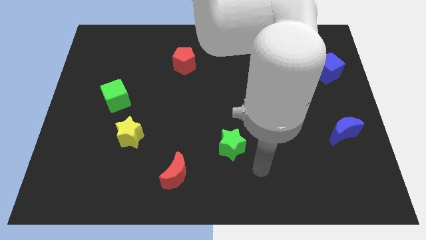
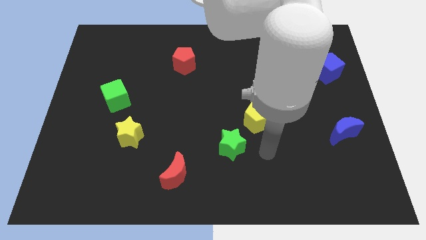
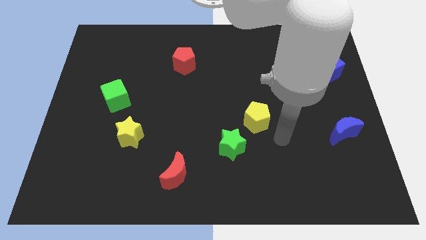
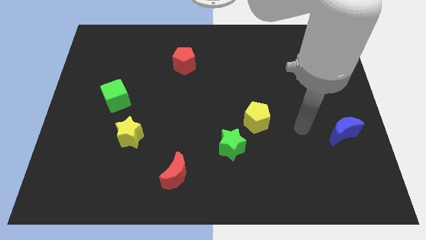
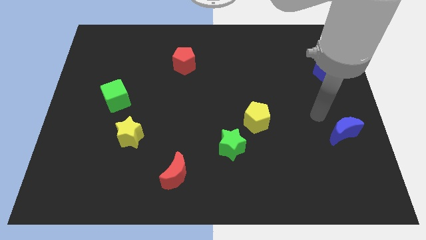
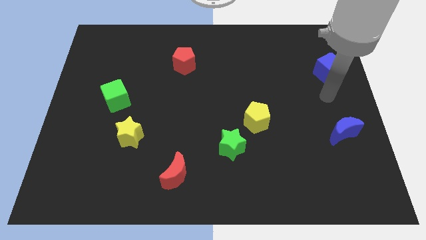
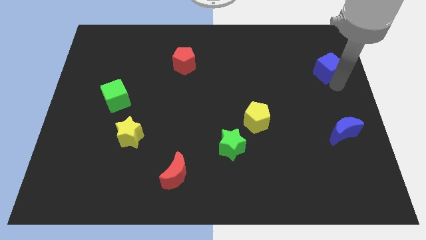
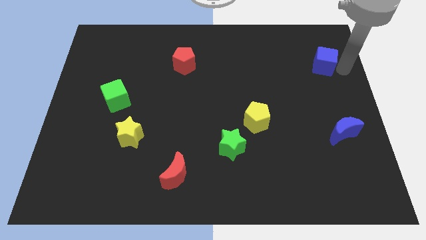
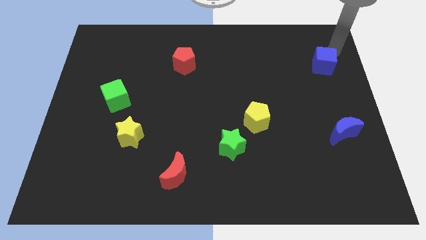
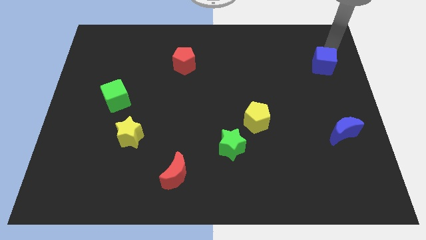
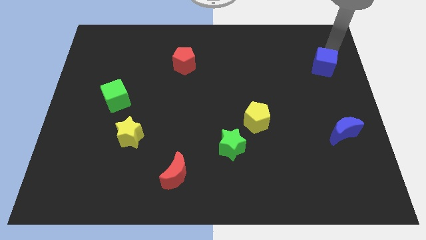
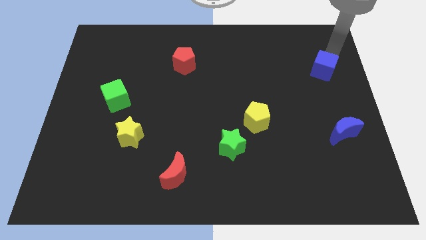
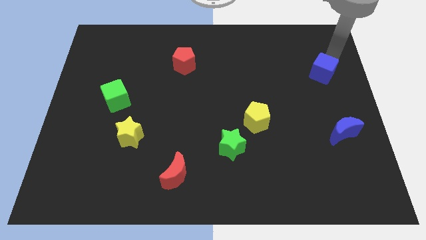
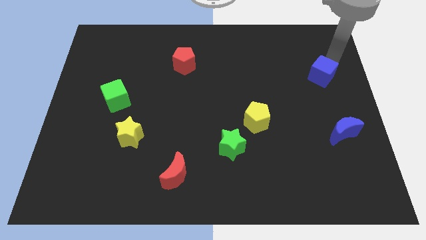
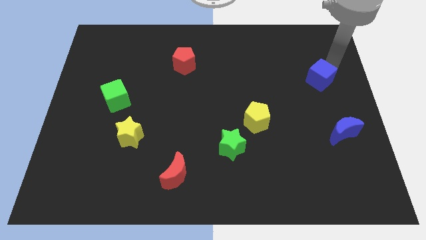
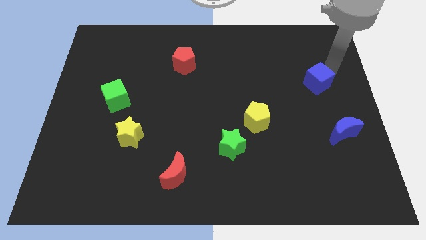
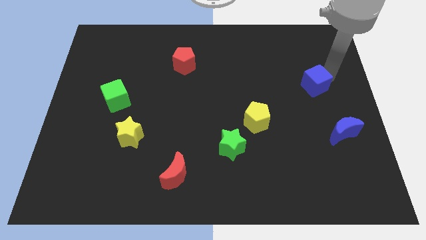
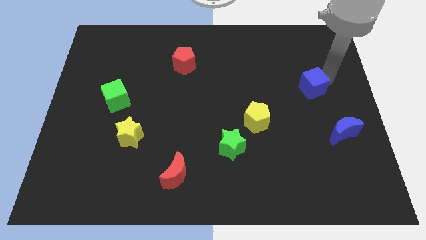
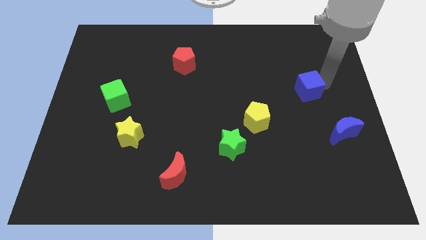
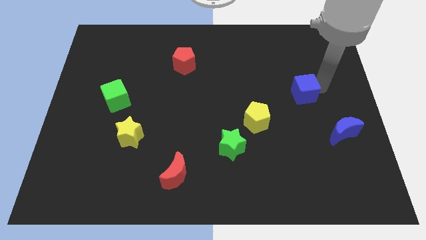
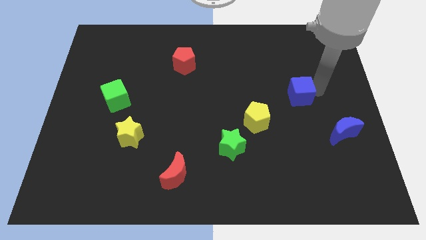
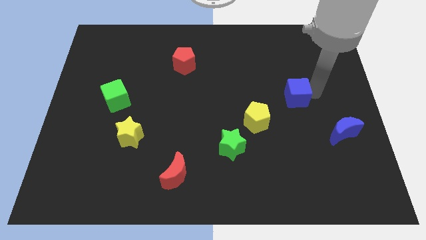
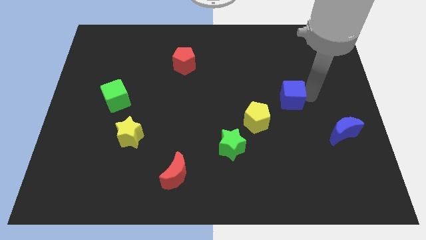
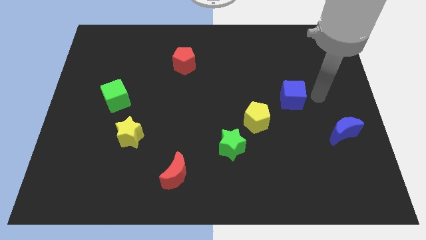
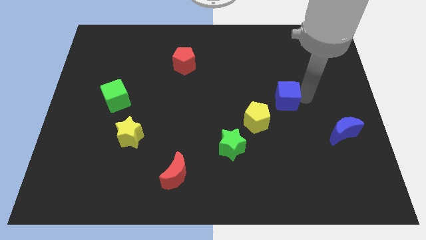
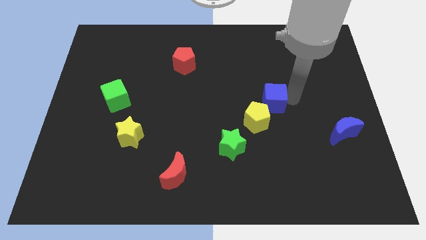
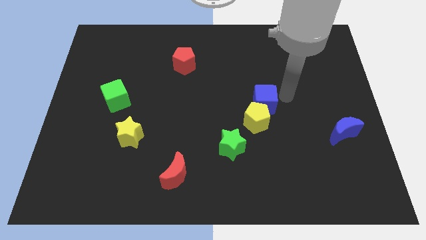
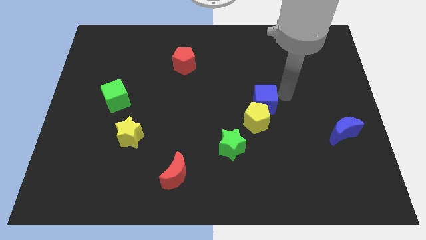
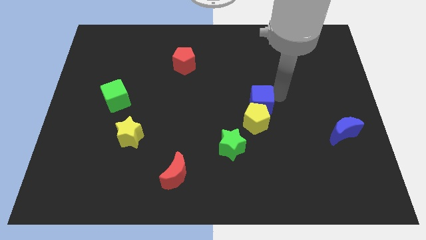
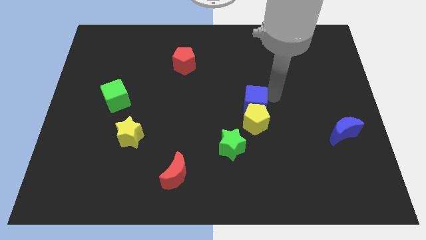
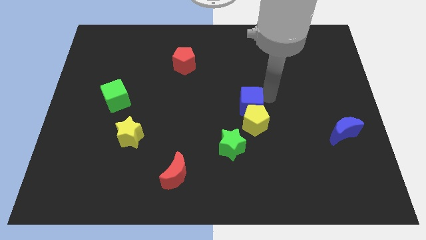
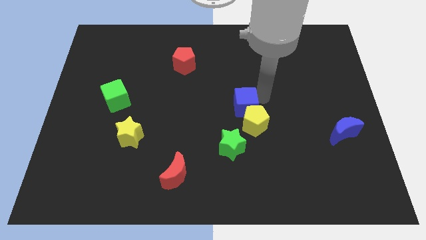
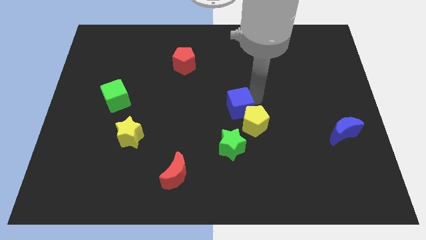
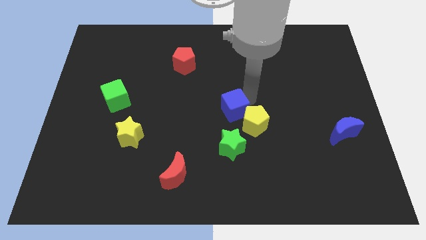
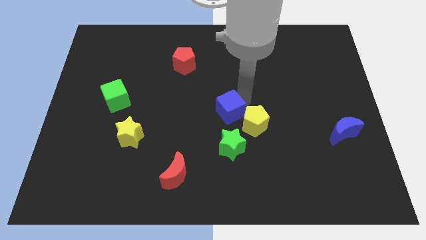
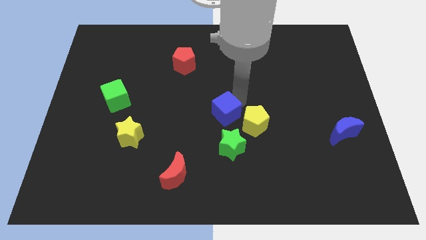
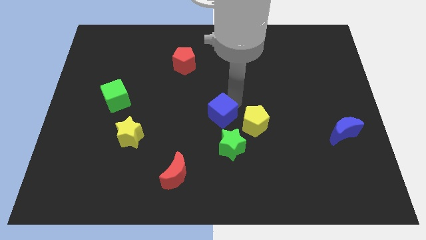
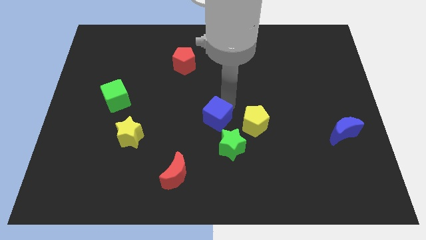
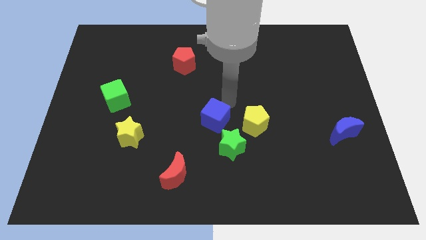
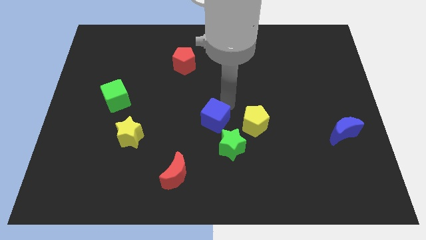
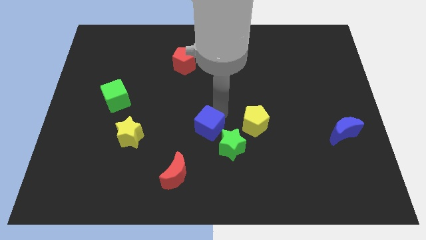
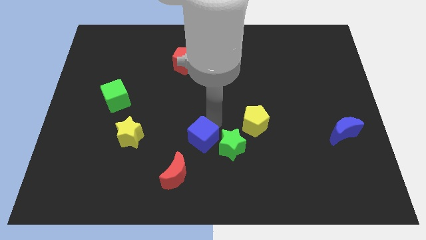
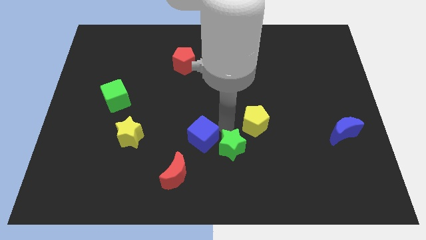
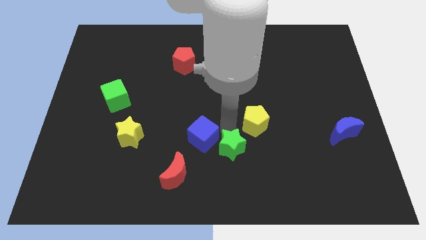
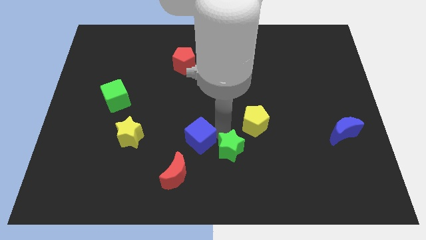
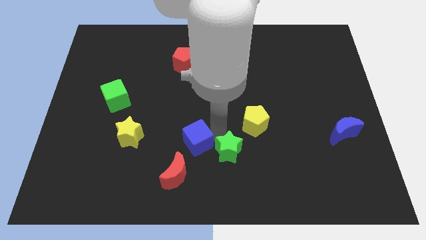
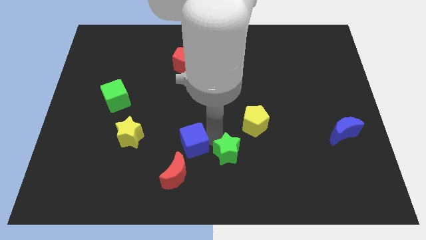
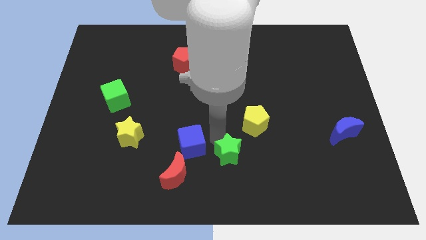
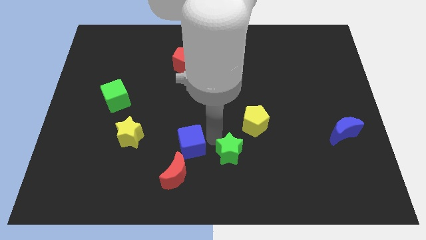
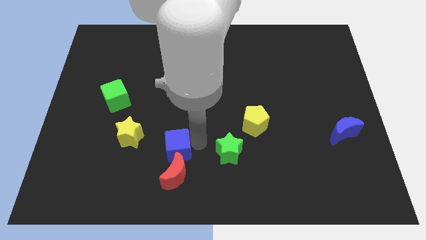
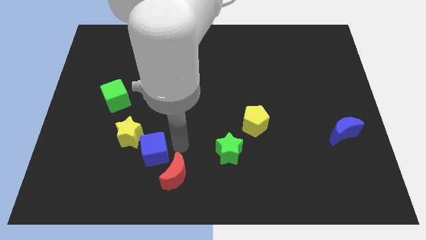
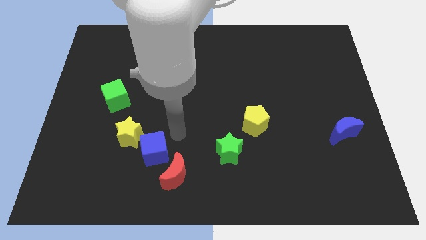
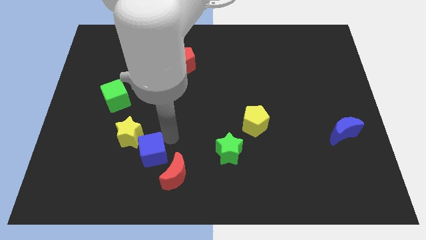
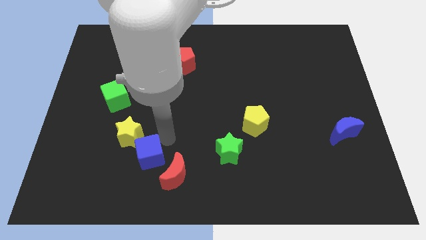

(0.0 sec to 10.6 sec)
slide the blue cube to the left of the red moon

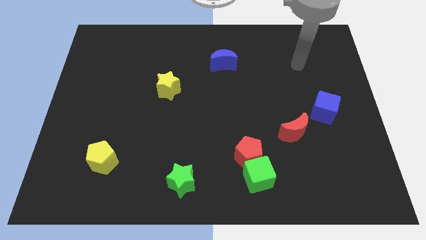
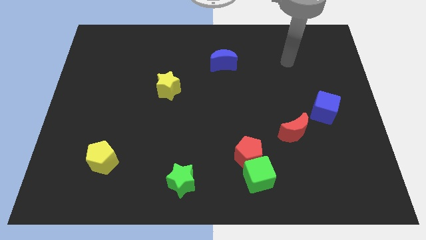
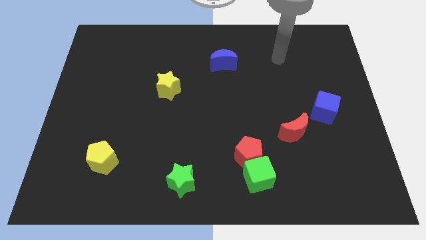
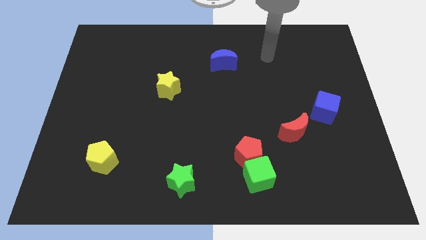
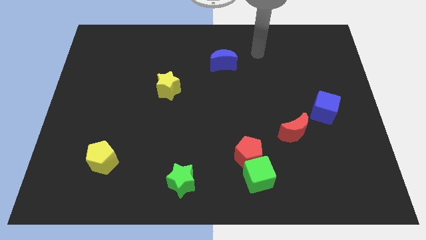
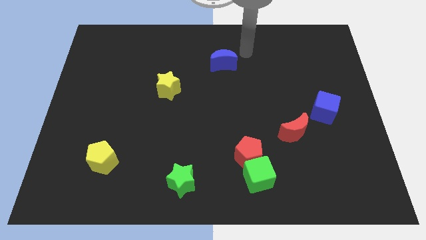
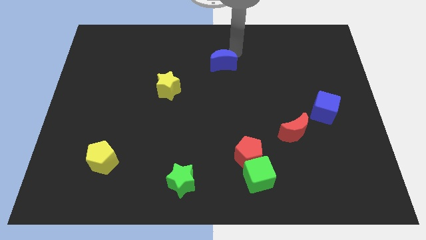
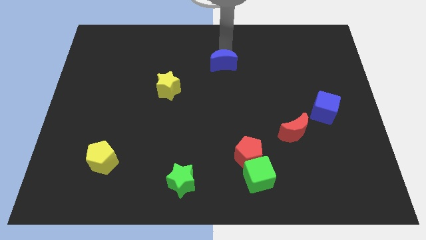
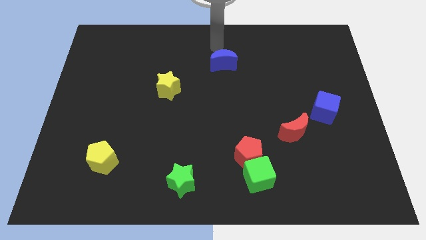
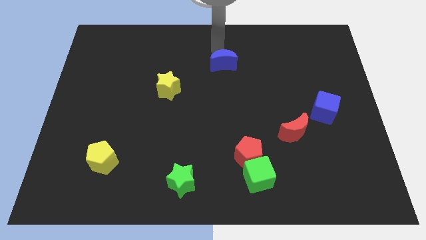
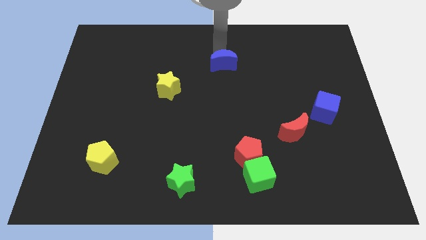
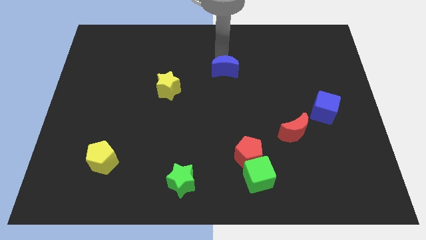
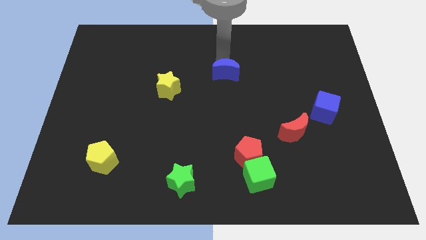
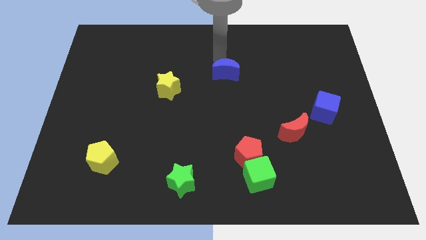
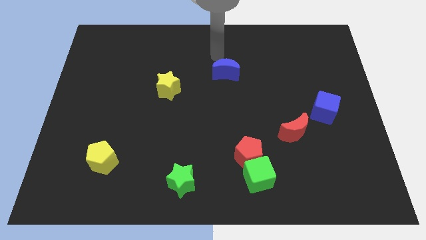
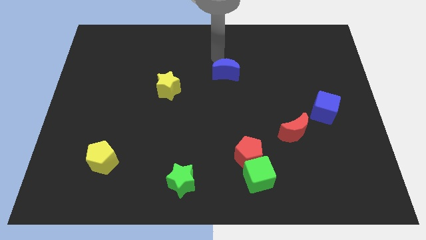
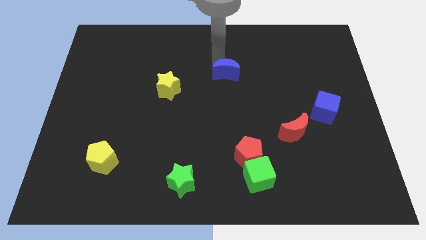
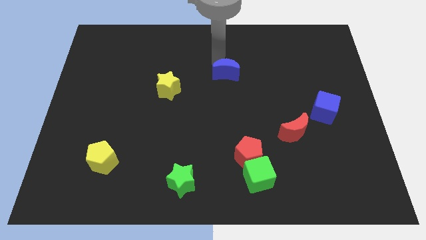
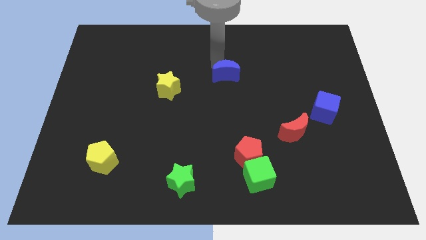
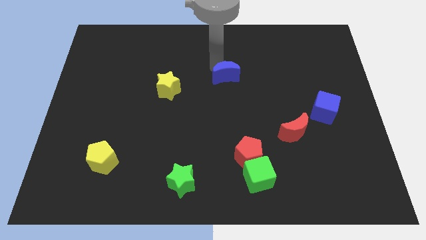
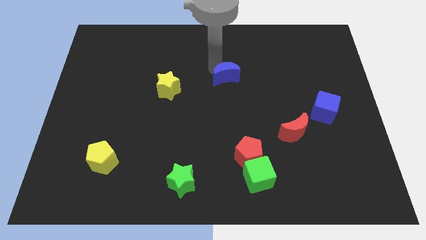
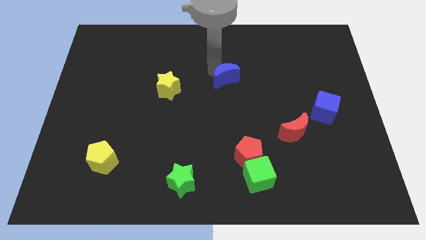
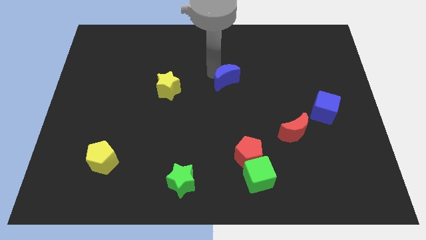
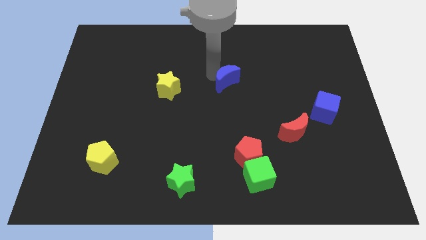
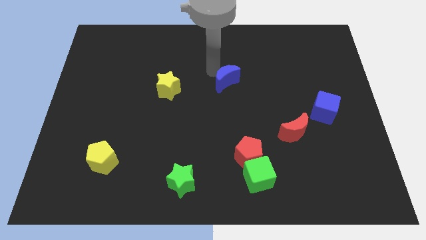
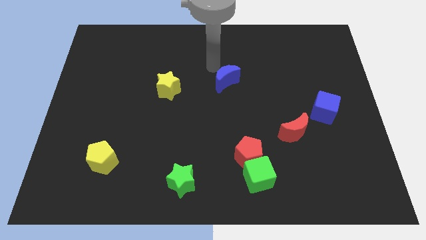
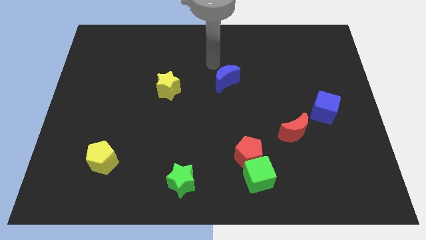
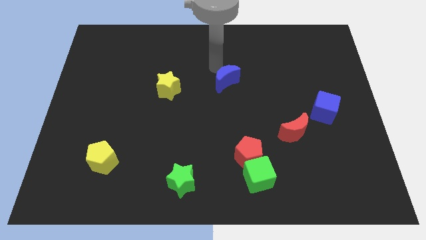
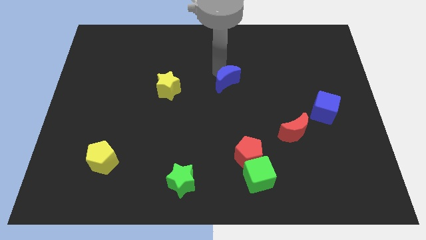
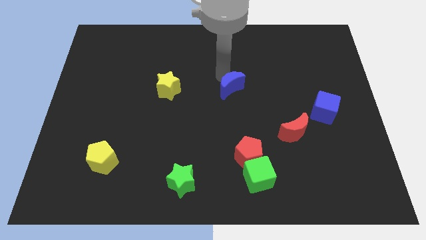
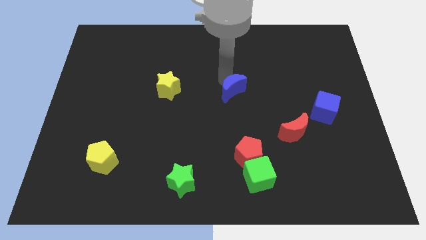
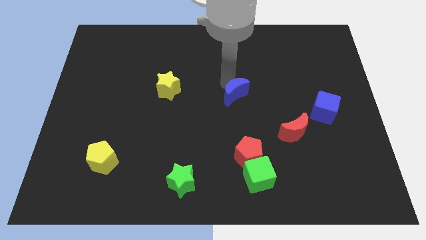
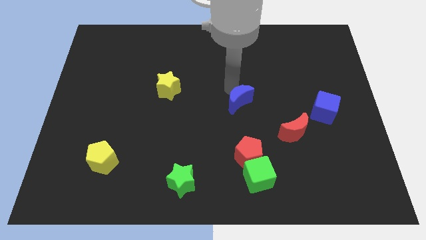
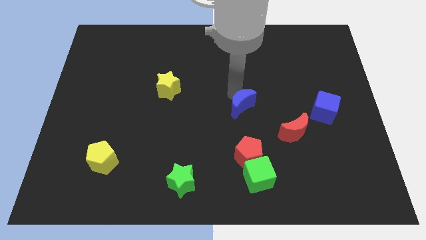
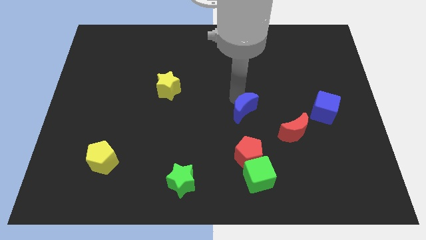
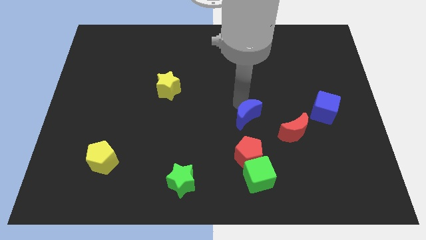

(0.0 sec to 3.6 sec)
put the blue moon to the top of the green cube
